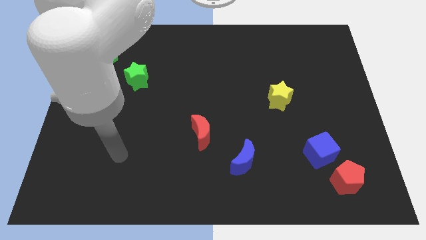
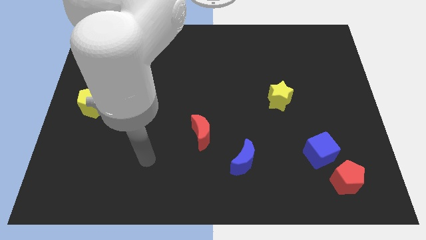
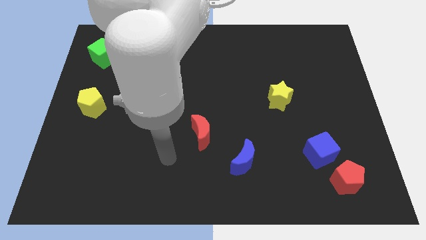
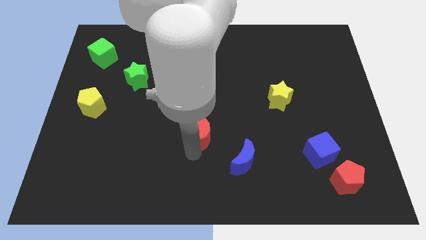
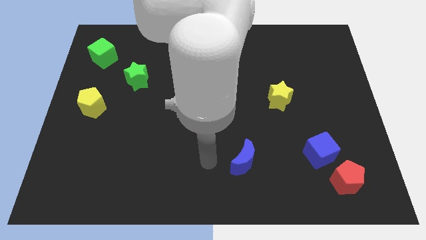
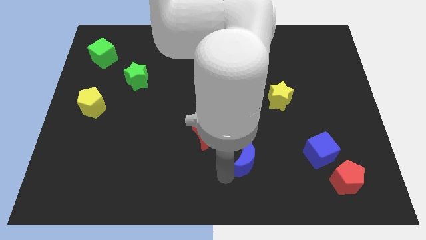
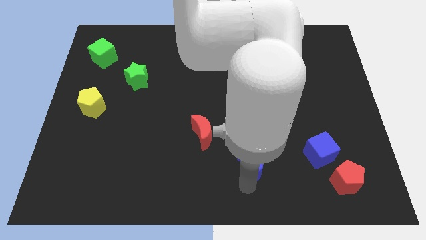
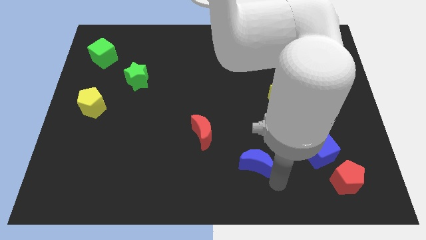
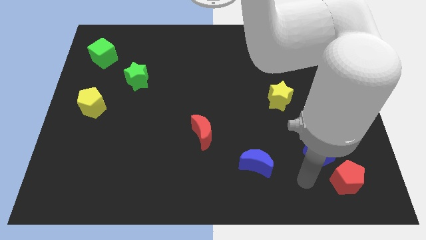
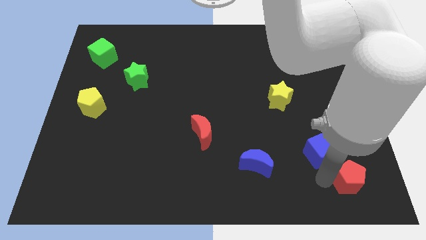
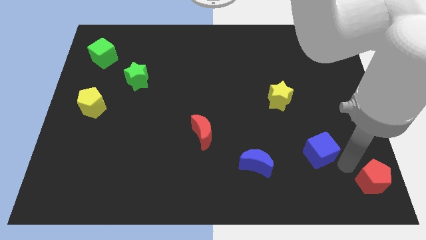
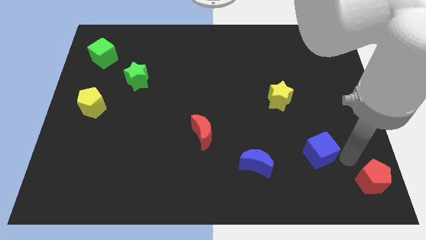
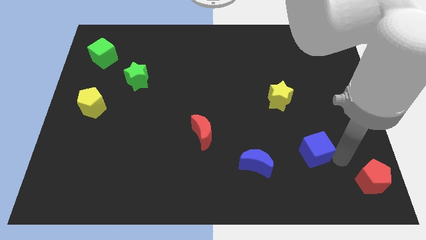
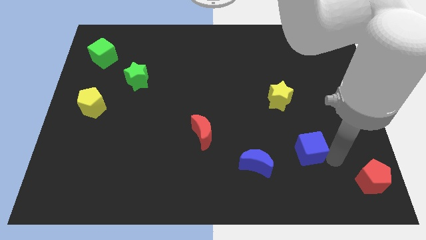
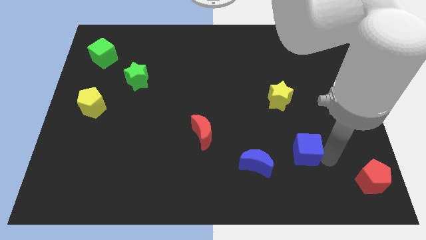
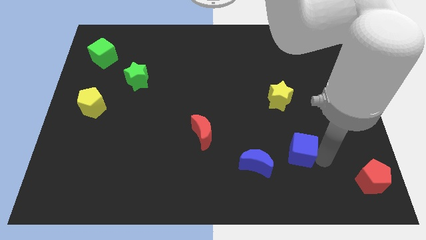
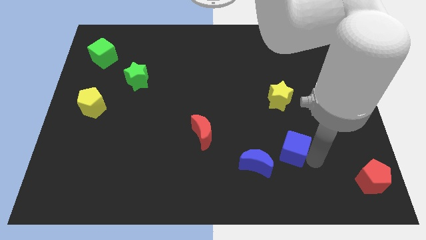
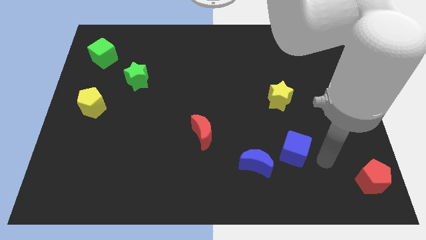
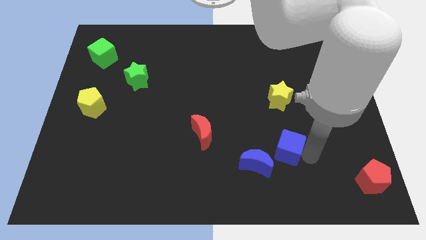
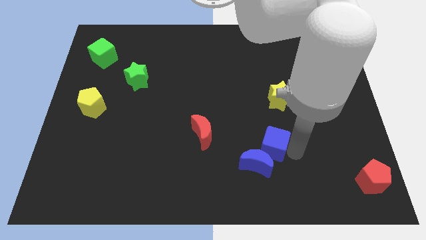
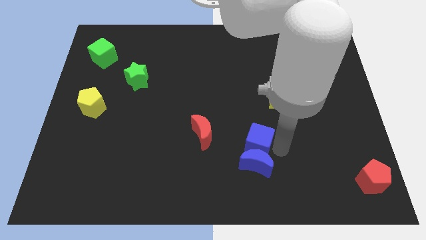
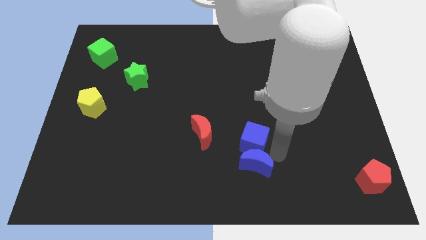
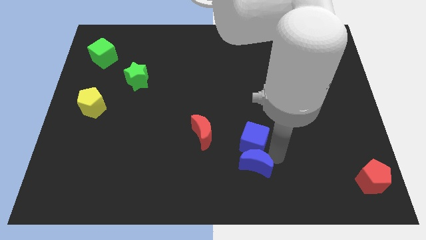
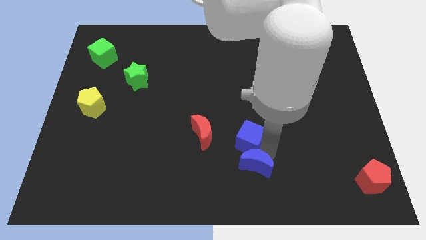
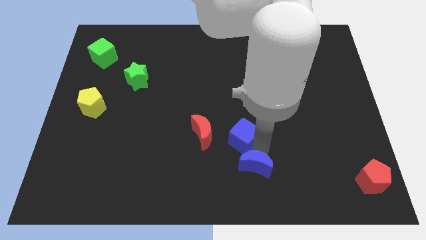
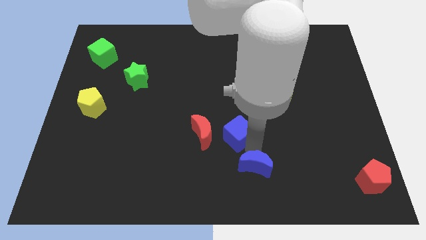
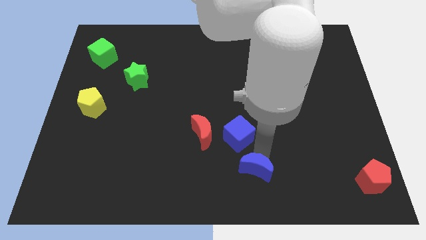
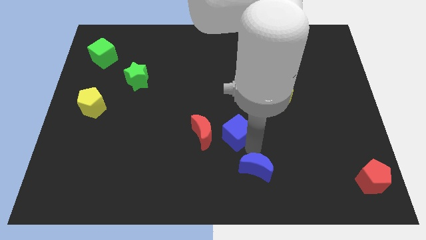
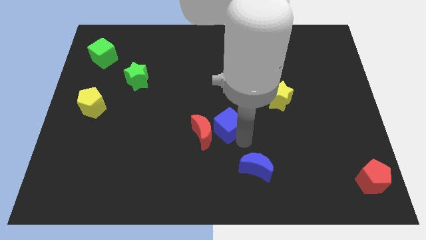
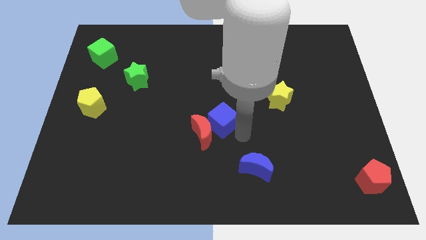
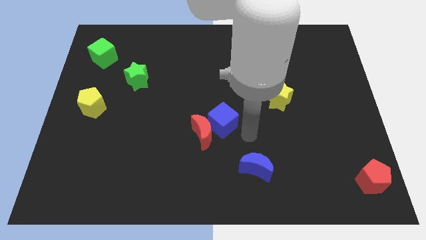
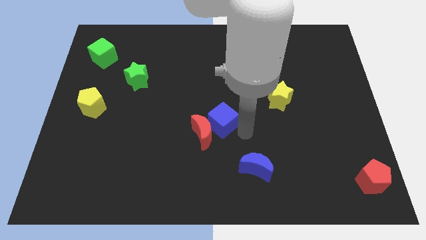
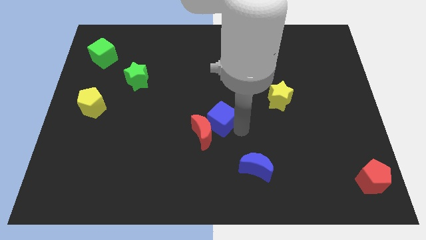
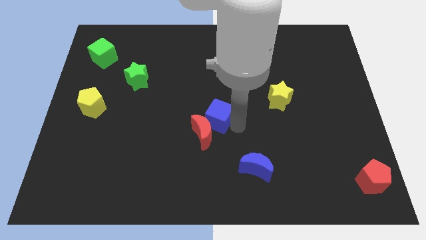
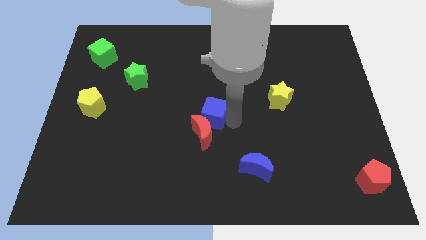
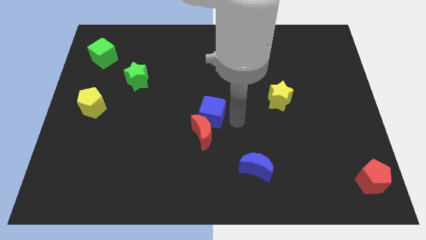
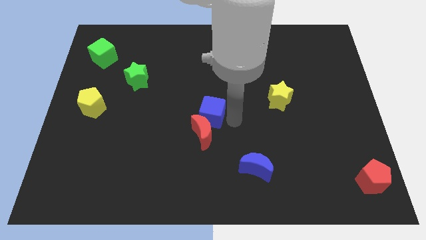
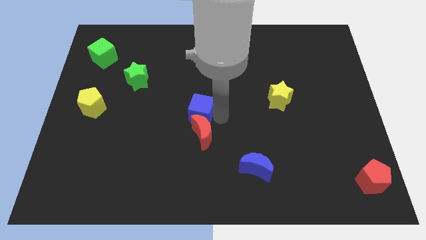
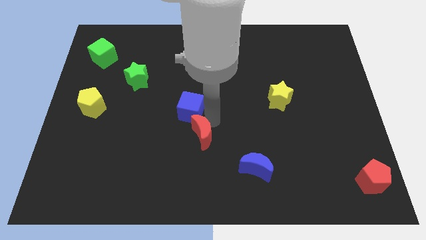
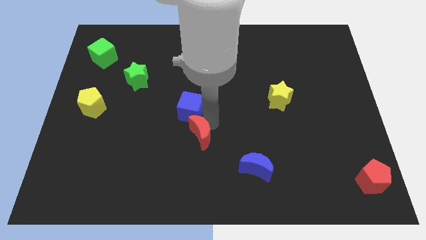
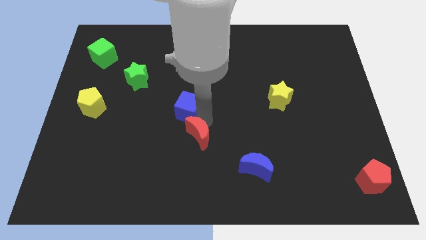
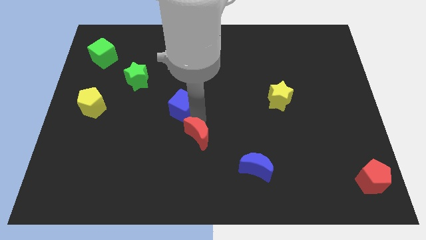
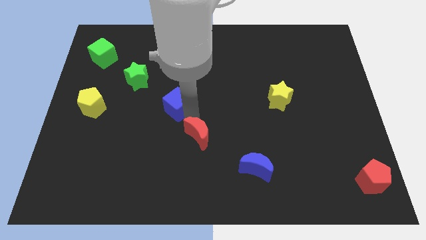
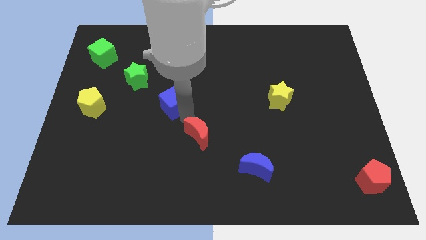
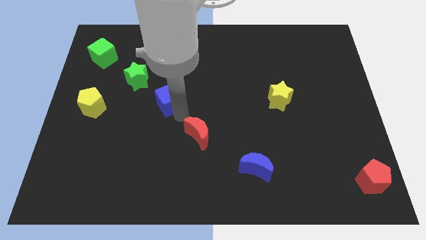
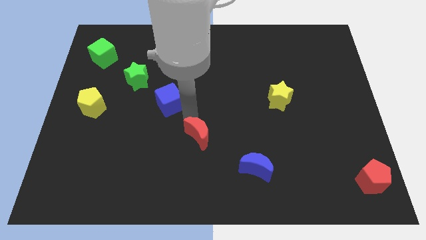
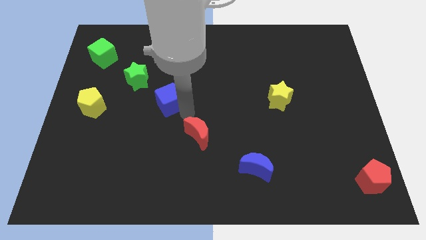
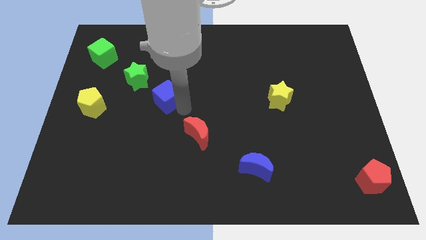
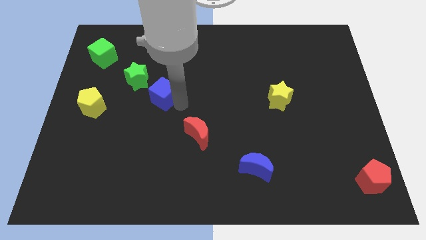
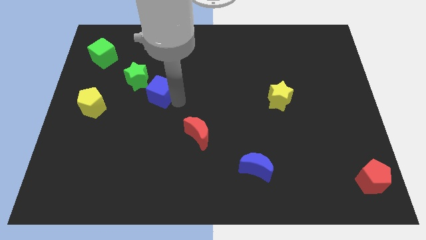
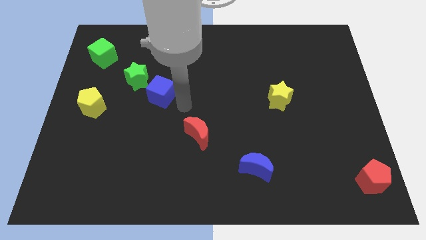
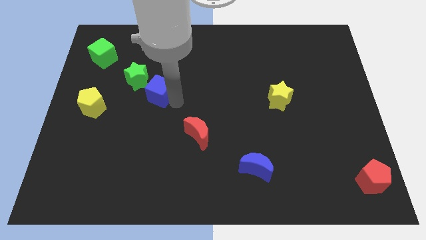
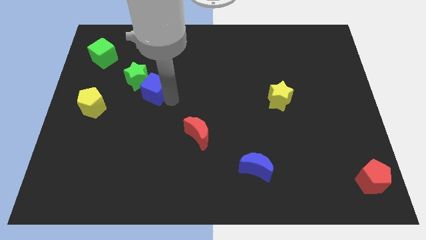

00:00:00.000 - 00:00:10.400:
push the blue cube to the green star

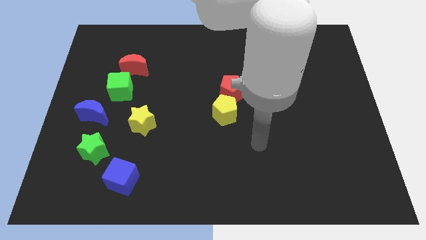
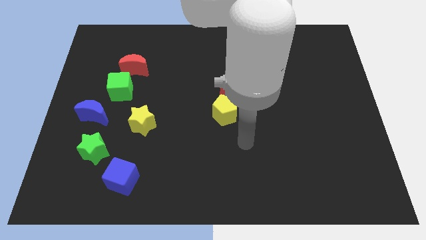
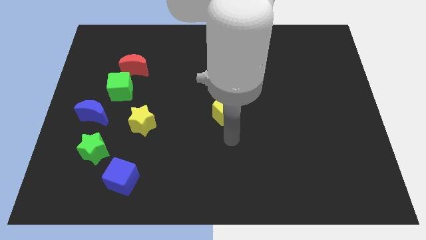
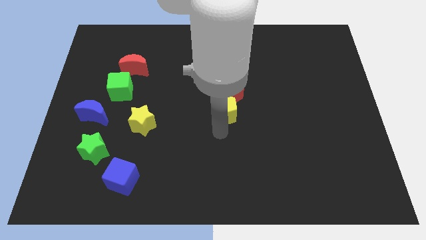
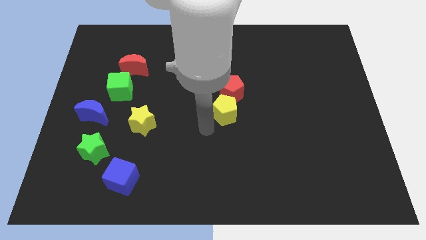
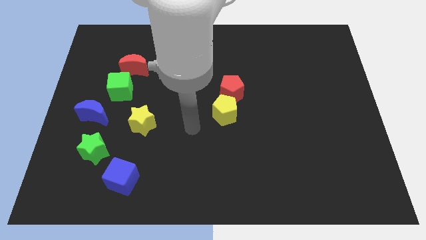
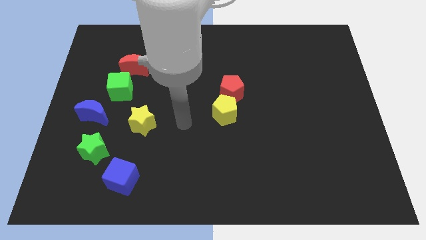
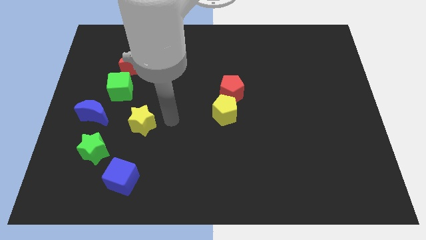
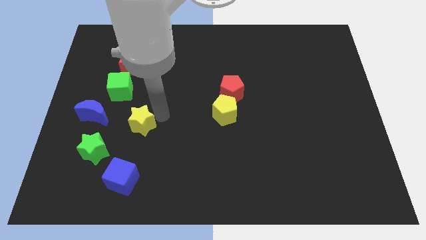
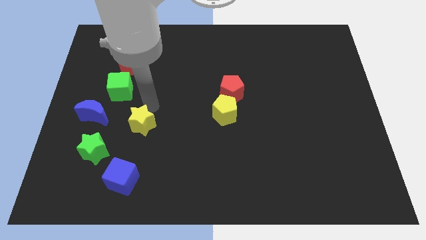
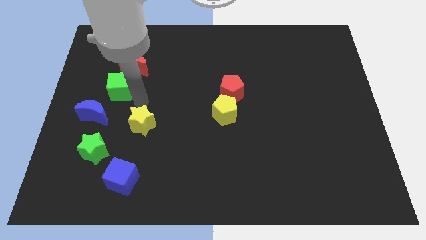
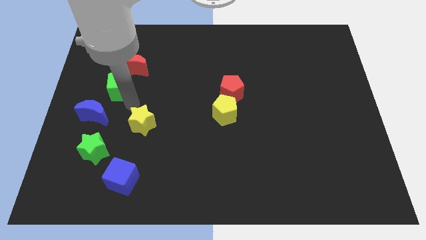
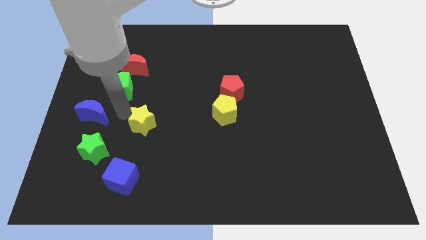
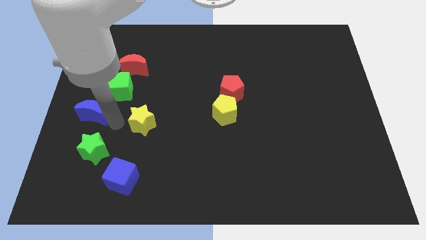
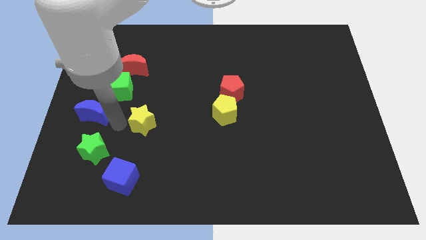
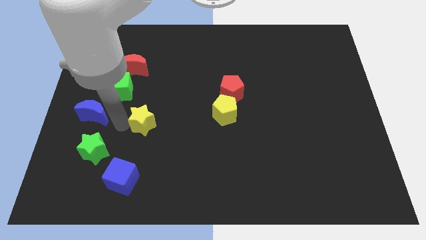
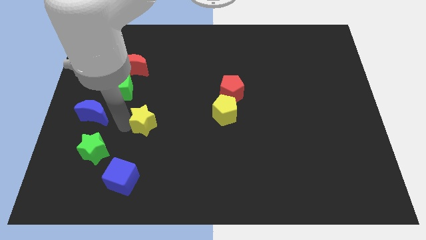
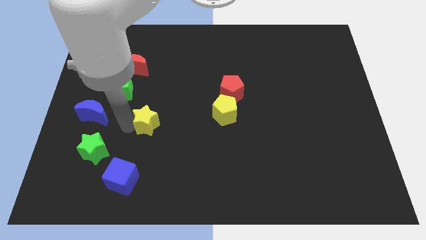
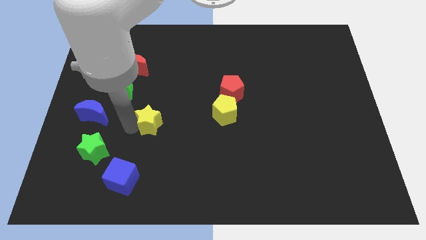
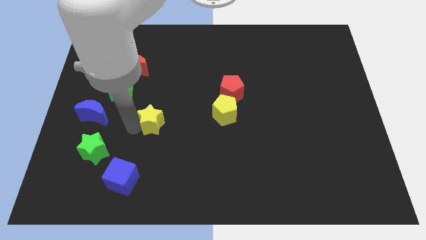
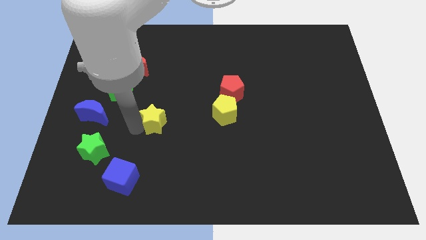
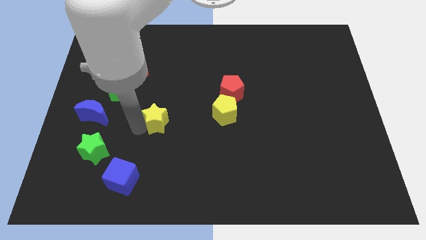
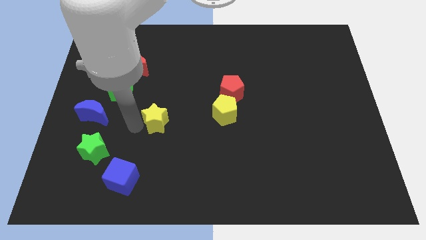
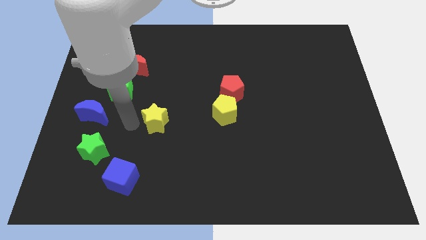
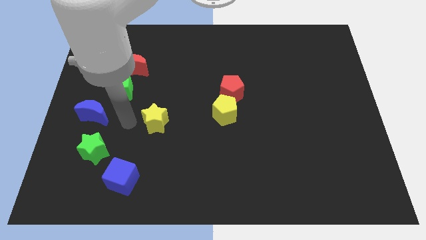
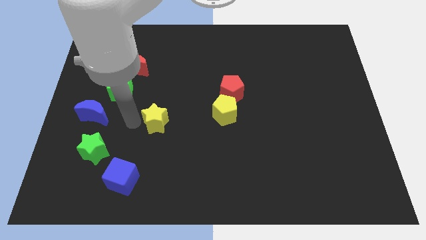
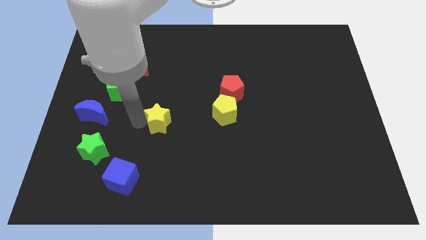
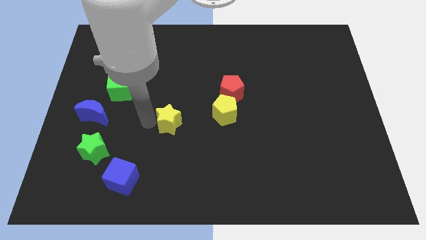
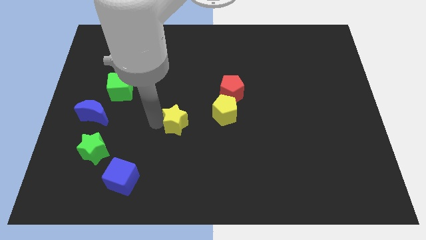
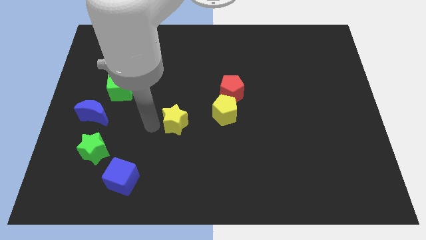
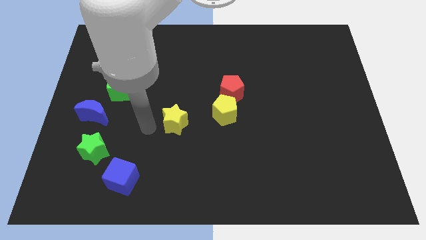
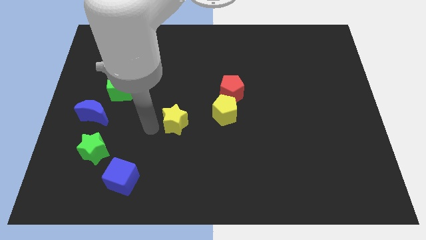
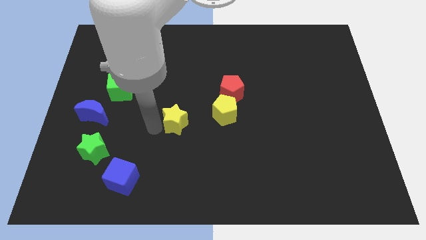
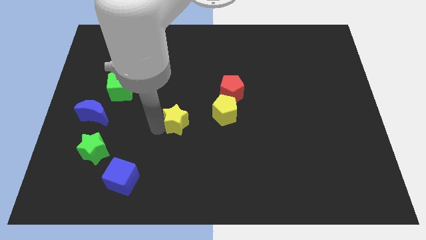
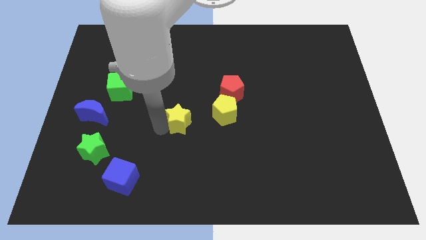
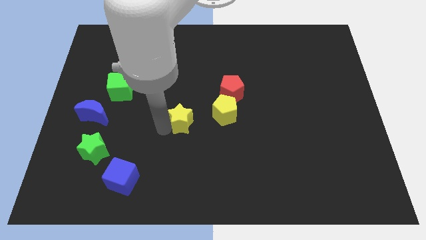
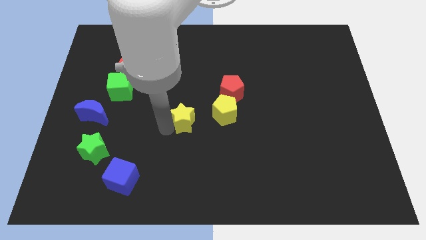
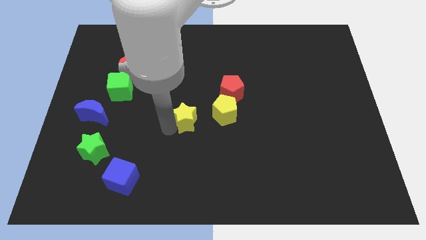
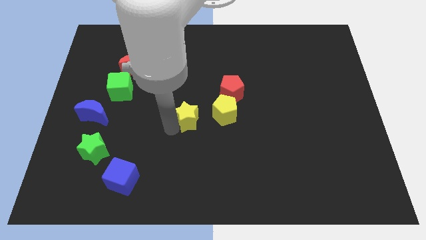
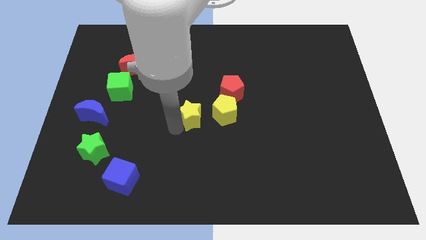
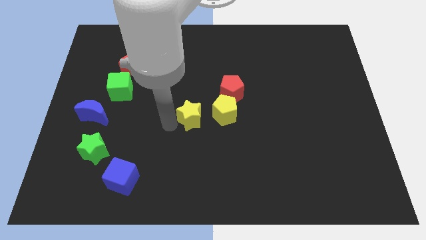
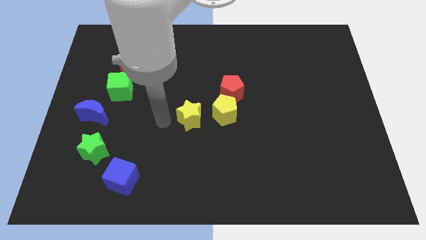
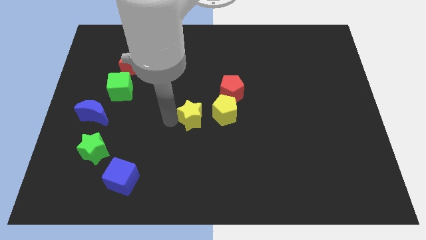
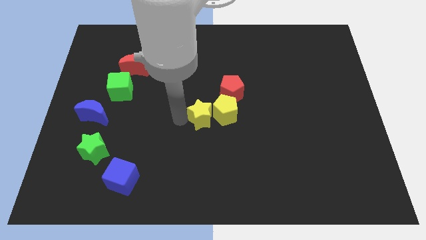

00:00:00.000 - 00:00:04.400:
move the yellow star next to the yellow pentagon
